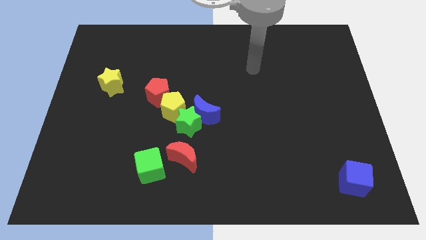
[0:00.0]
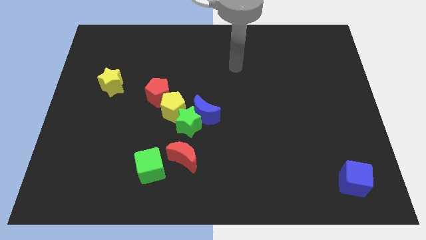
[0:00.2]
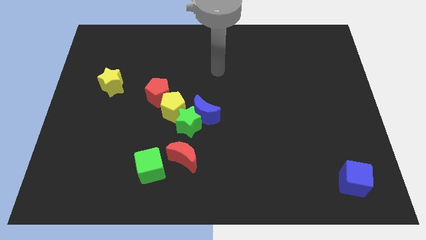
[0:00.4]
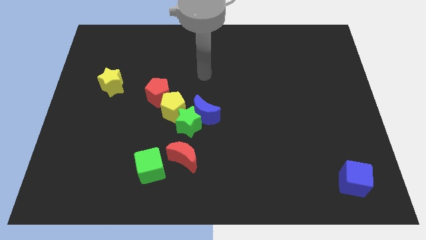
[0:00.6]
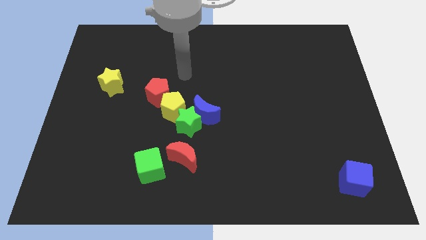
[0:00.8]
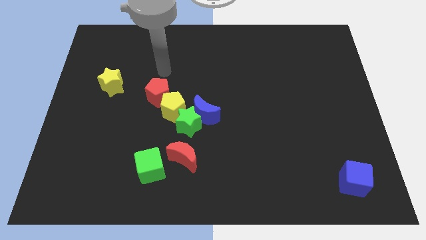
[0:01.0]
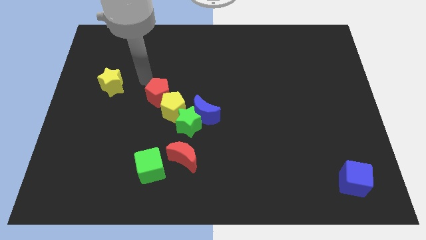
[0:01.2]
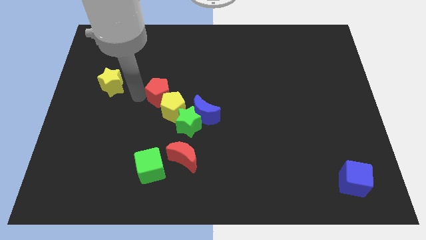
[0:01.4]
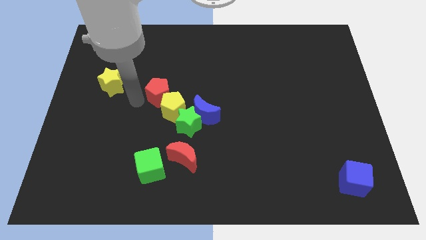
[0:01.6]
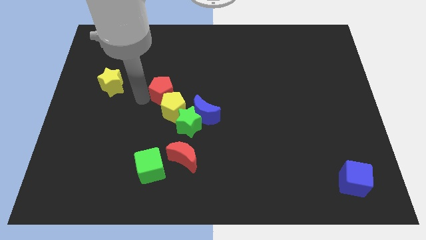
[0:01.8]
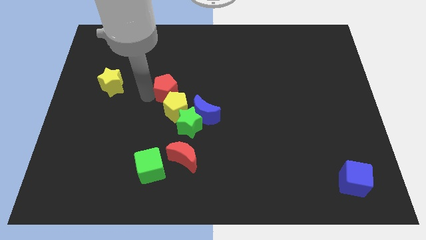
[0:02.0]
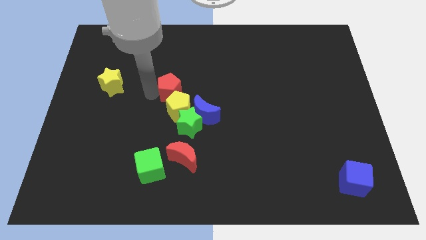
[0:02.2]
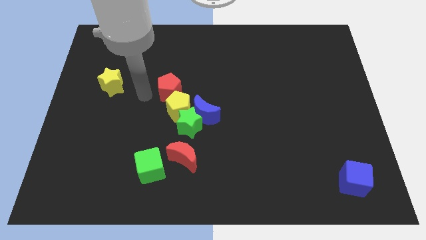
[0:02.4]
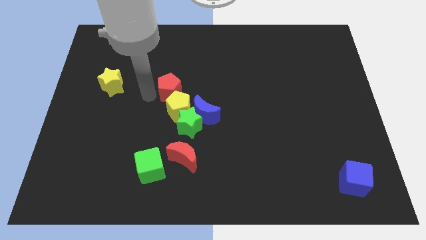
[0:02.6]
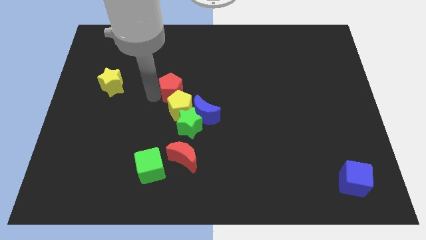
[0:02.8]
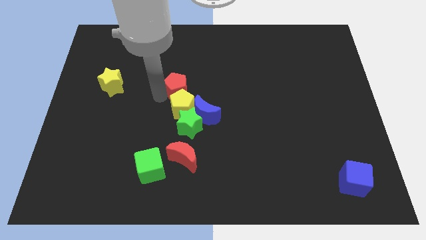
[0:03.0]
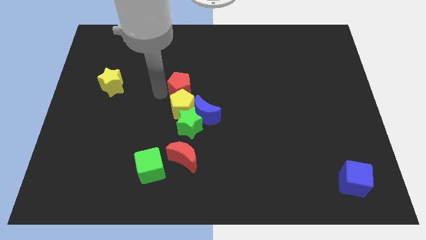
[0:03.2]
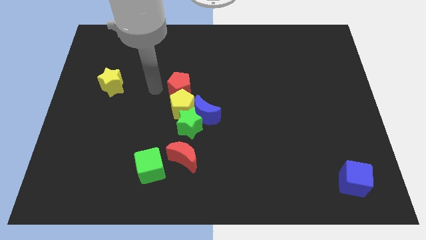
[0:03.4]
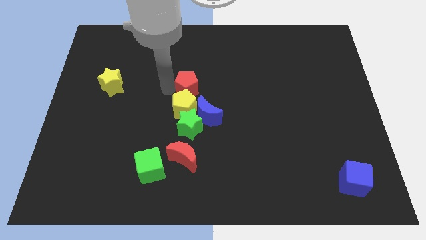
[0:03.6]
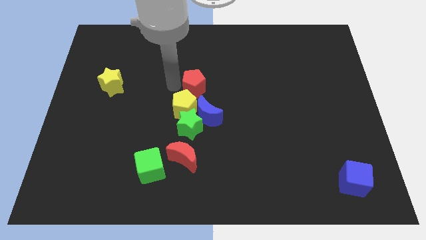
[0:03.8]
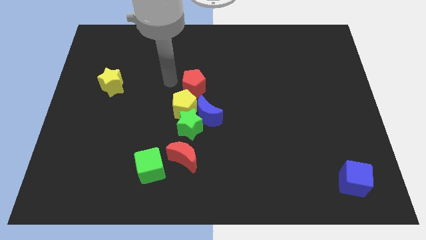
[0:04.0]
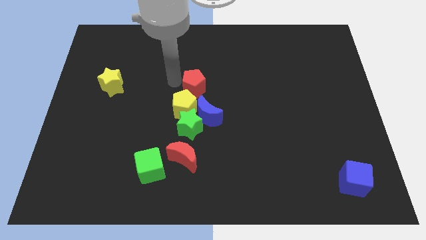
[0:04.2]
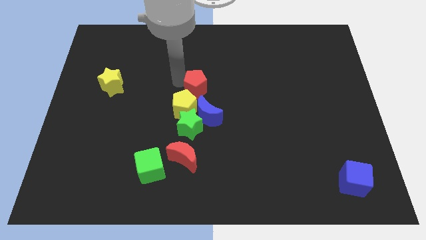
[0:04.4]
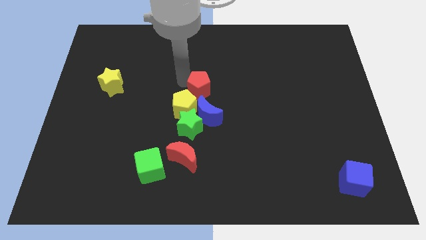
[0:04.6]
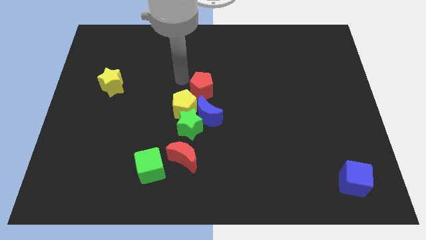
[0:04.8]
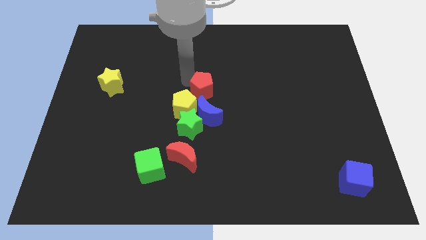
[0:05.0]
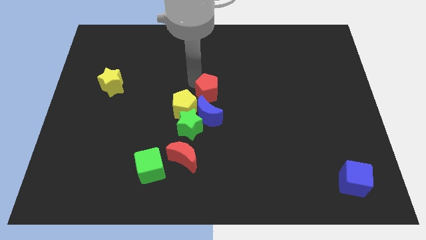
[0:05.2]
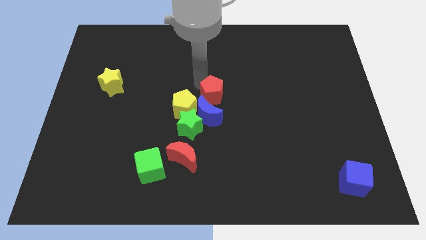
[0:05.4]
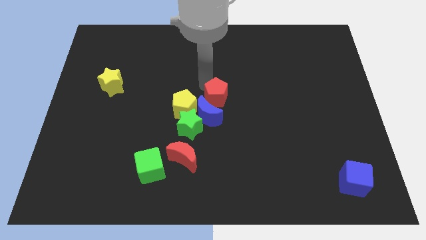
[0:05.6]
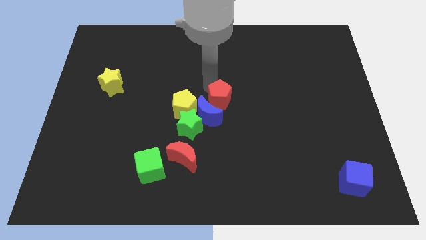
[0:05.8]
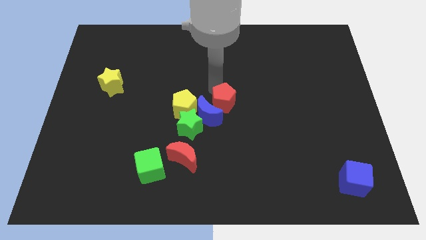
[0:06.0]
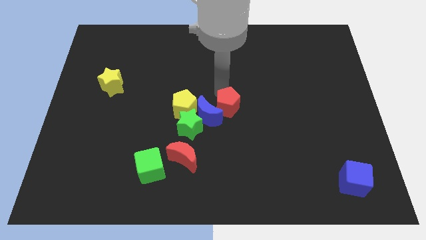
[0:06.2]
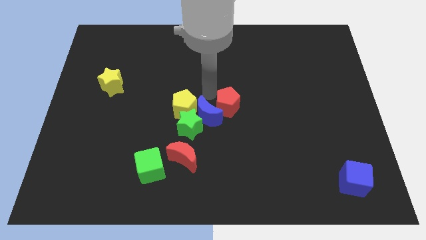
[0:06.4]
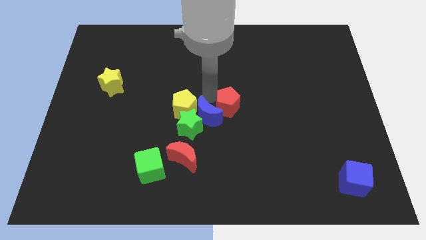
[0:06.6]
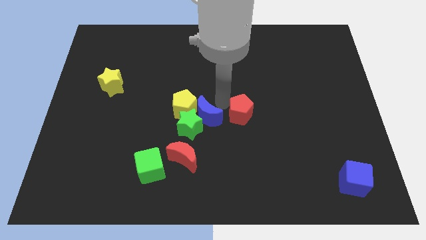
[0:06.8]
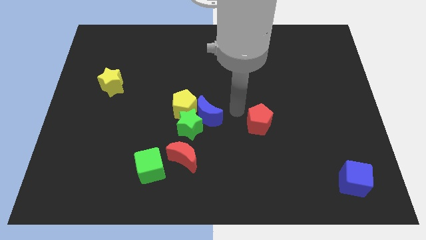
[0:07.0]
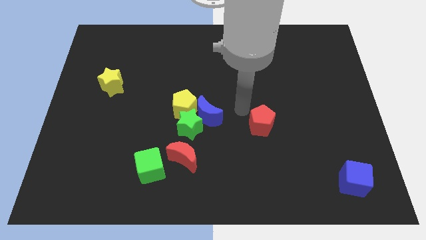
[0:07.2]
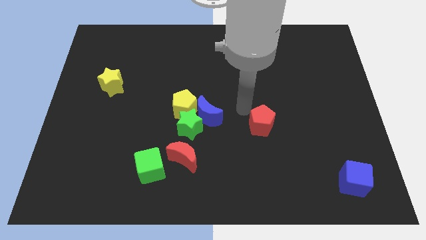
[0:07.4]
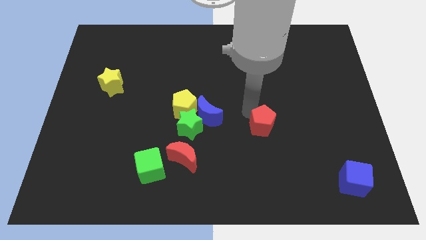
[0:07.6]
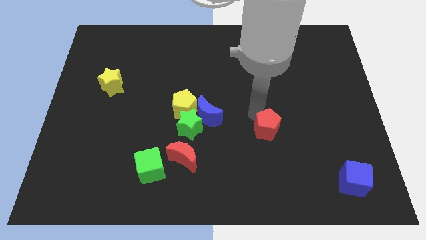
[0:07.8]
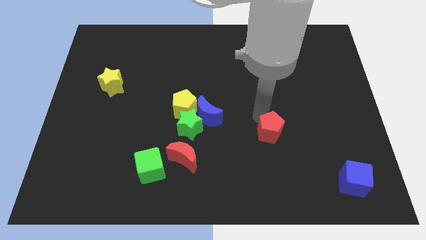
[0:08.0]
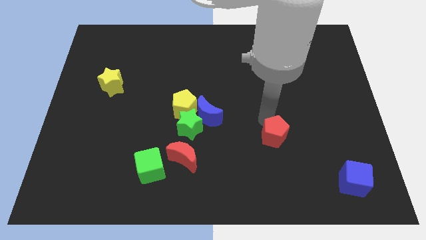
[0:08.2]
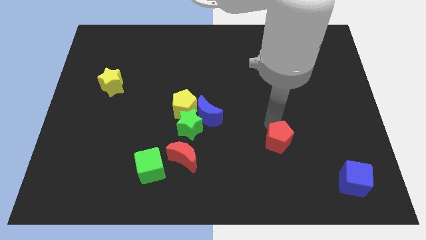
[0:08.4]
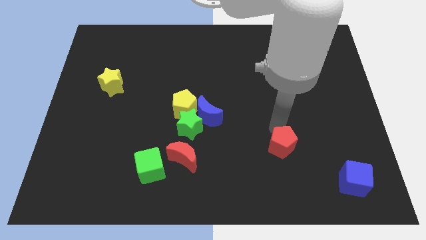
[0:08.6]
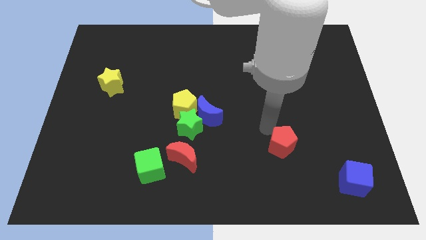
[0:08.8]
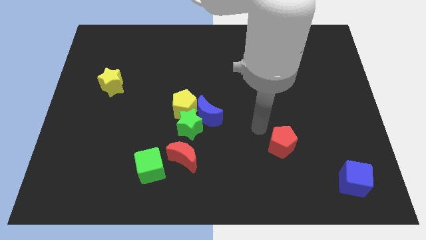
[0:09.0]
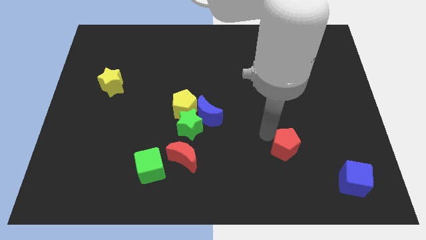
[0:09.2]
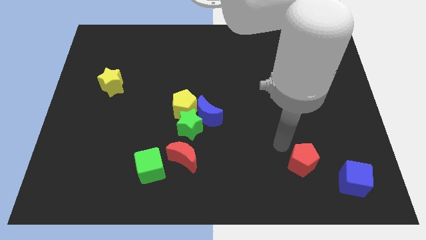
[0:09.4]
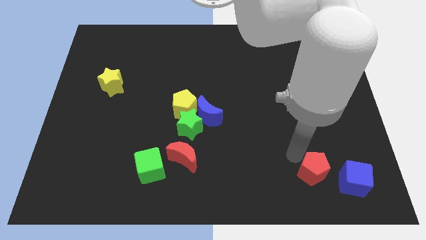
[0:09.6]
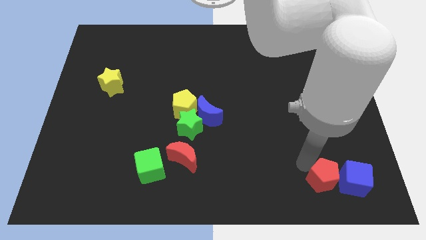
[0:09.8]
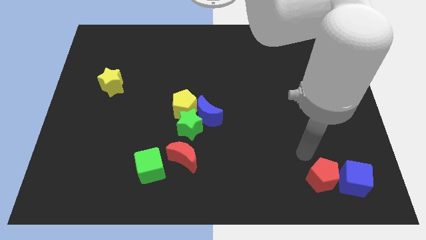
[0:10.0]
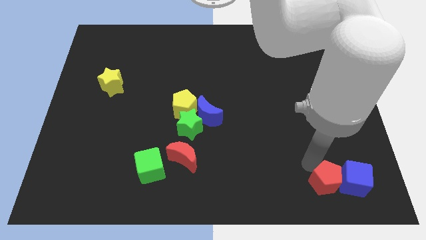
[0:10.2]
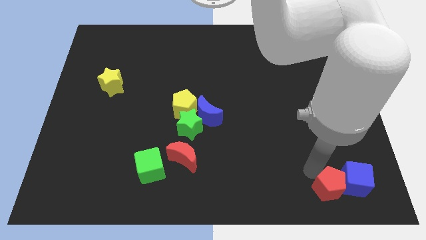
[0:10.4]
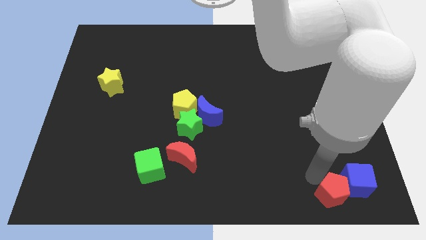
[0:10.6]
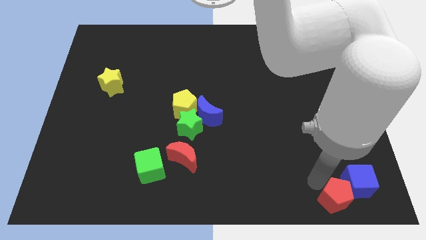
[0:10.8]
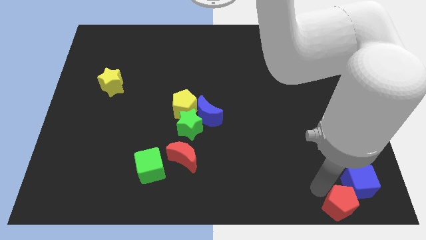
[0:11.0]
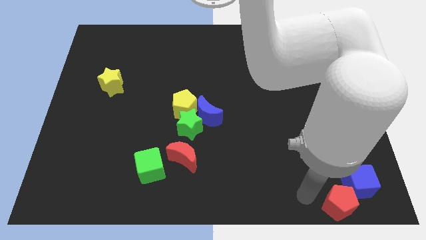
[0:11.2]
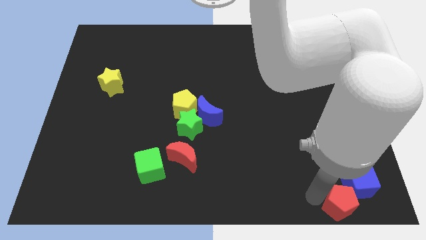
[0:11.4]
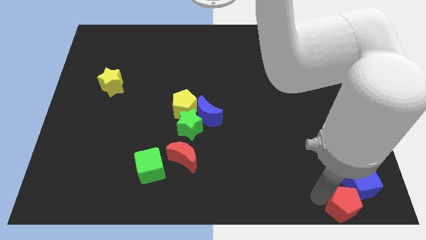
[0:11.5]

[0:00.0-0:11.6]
push the red pentagon to the bottom right corner
